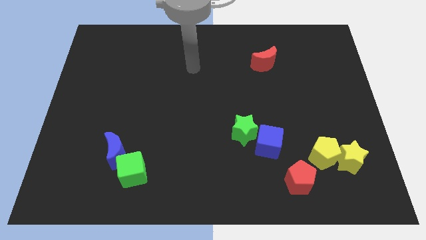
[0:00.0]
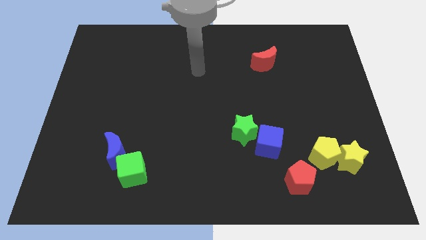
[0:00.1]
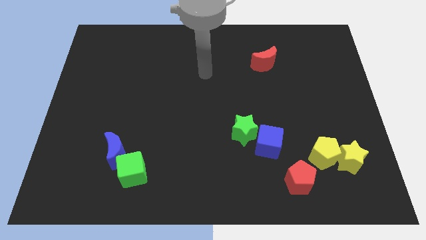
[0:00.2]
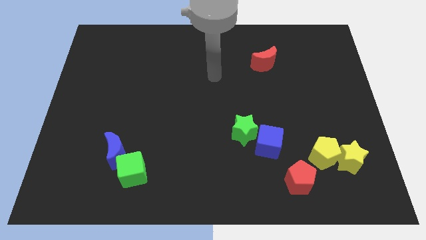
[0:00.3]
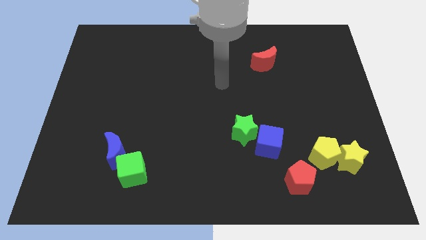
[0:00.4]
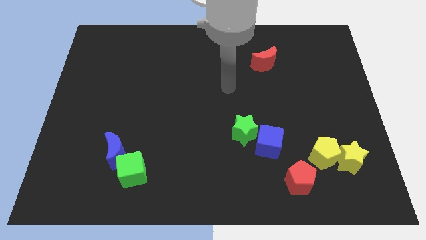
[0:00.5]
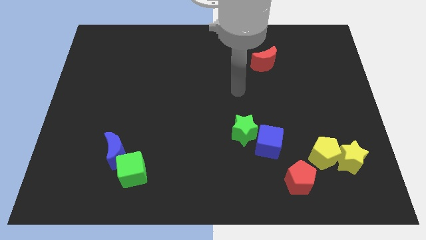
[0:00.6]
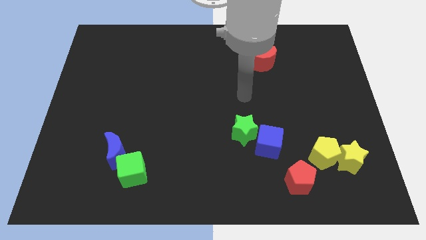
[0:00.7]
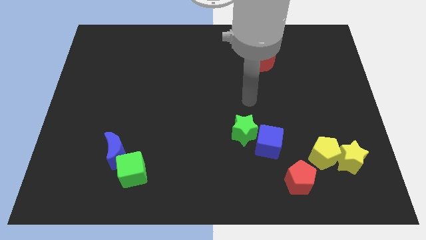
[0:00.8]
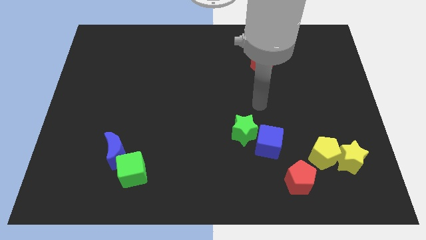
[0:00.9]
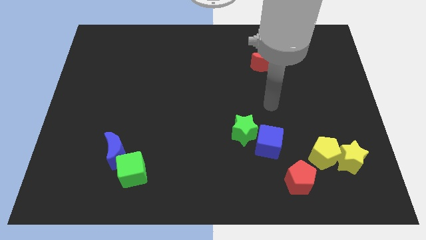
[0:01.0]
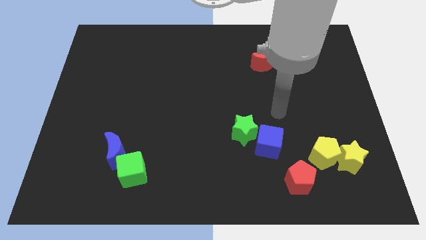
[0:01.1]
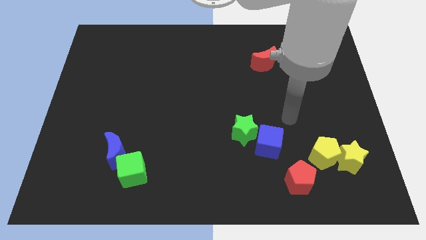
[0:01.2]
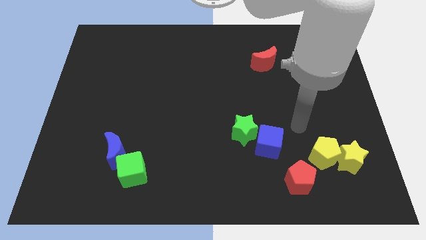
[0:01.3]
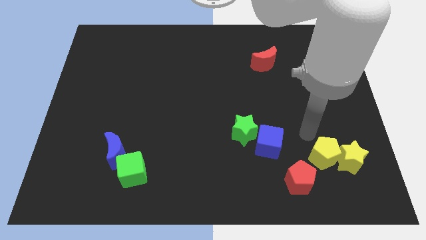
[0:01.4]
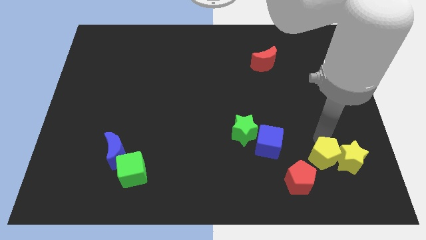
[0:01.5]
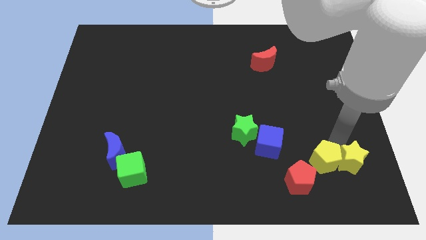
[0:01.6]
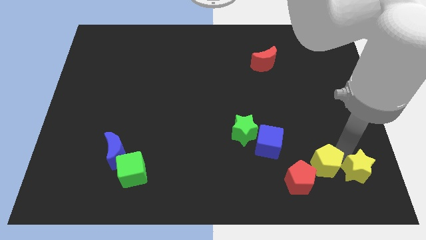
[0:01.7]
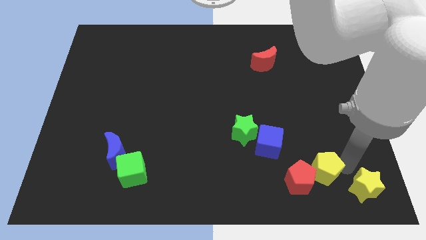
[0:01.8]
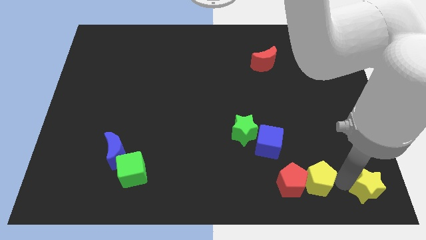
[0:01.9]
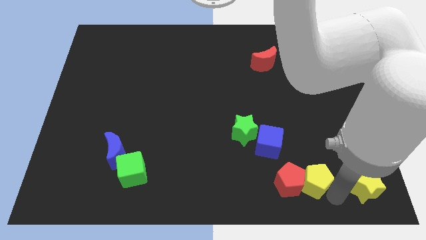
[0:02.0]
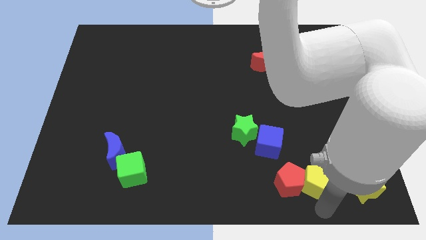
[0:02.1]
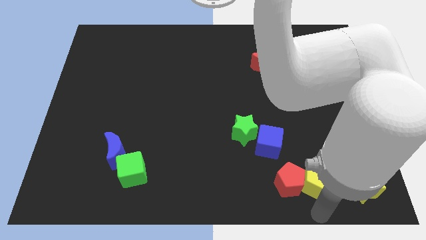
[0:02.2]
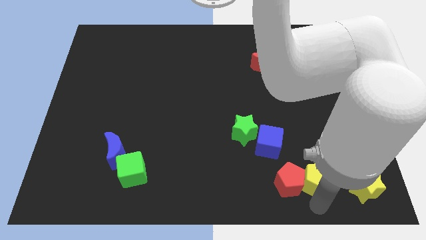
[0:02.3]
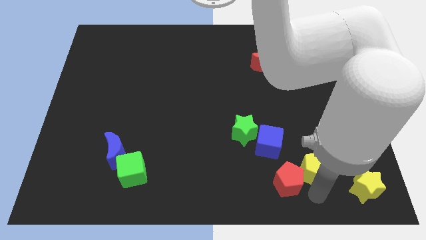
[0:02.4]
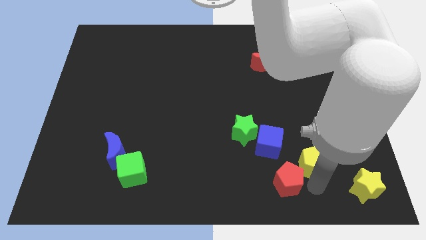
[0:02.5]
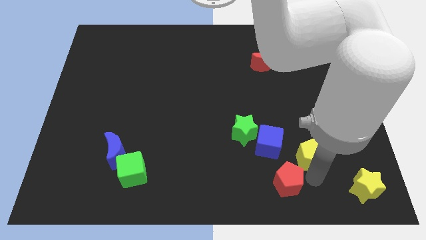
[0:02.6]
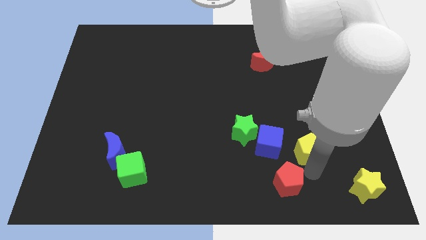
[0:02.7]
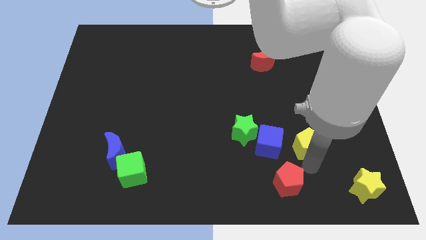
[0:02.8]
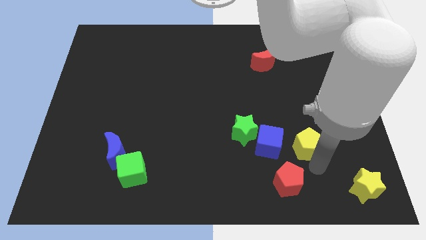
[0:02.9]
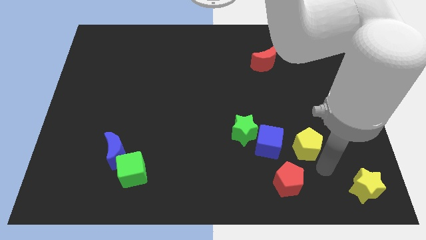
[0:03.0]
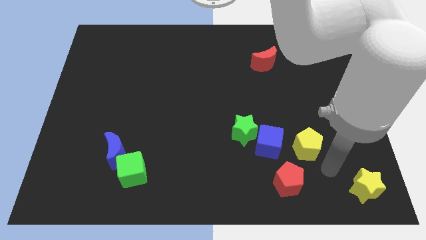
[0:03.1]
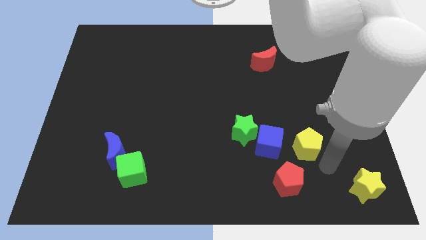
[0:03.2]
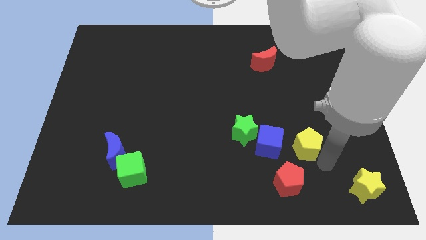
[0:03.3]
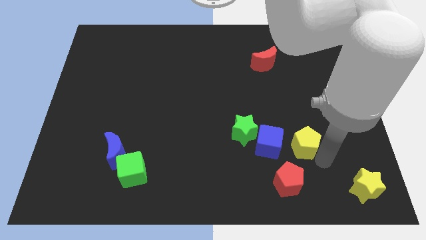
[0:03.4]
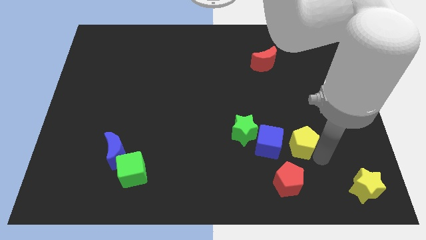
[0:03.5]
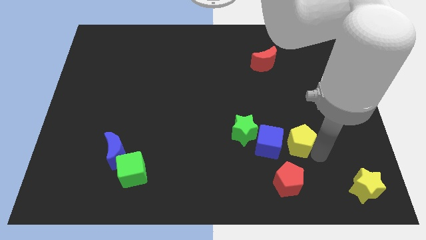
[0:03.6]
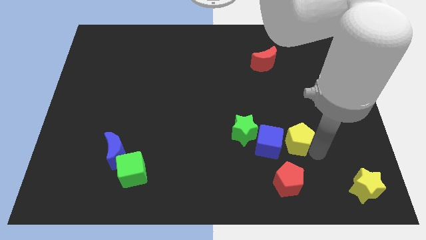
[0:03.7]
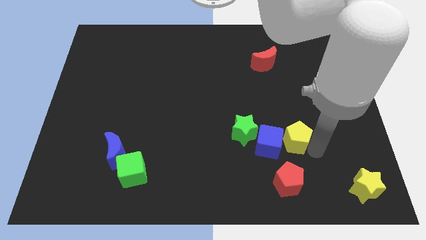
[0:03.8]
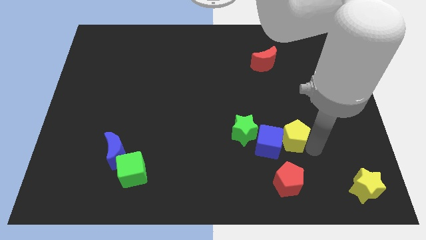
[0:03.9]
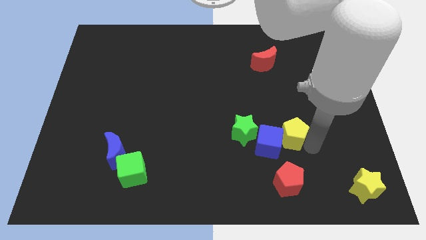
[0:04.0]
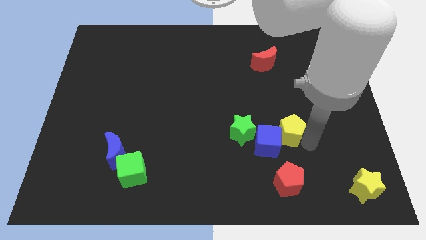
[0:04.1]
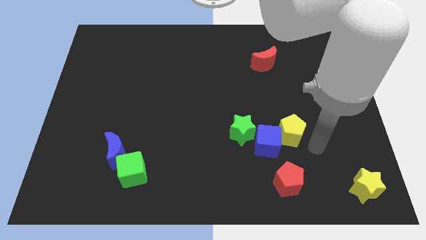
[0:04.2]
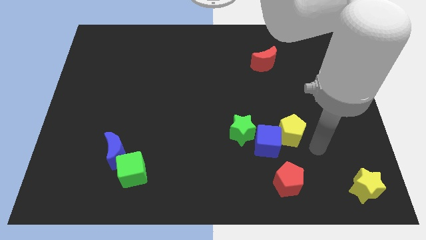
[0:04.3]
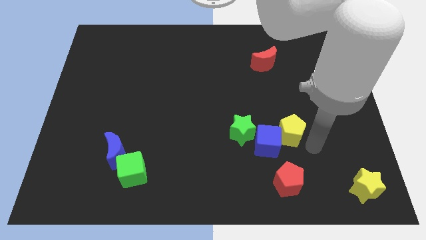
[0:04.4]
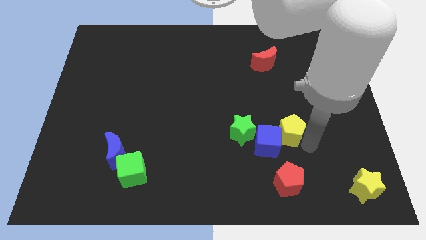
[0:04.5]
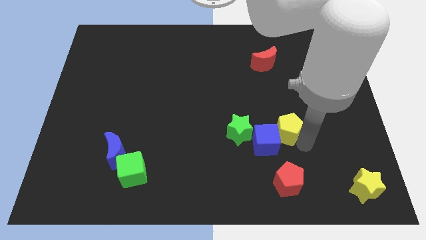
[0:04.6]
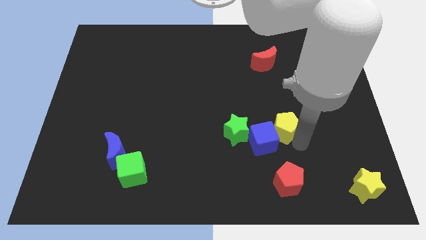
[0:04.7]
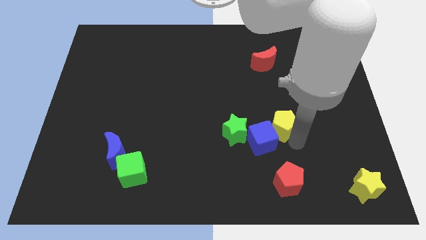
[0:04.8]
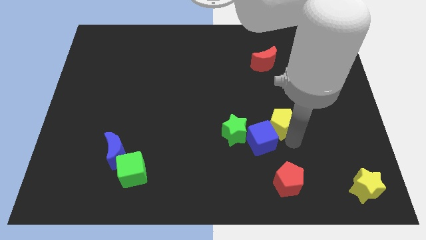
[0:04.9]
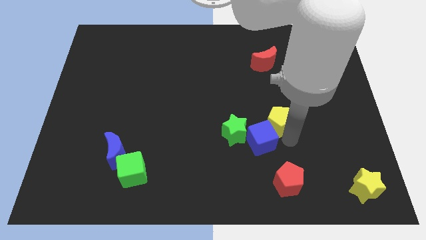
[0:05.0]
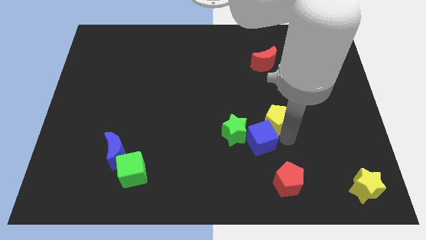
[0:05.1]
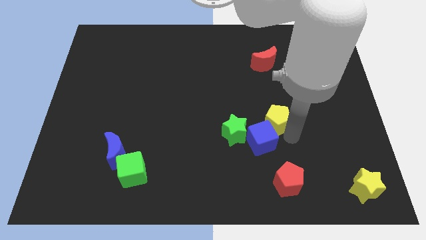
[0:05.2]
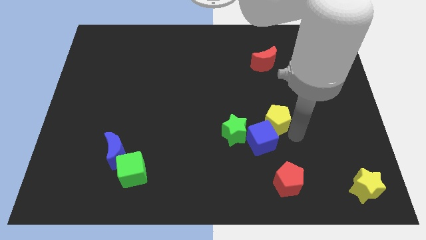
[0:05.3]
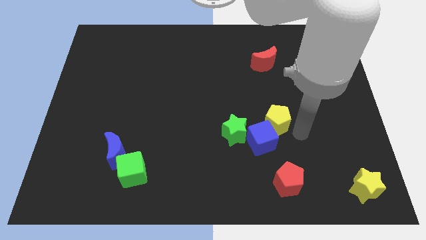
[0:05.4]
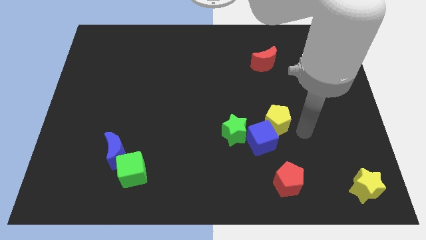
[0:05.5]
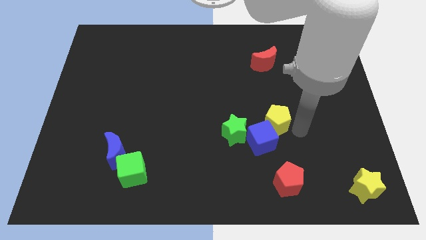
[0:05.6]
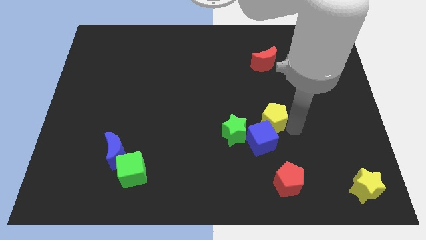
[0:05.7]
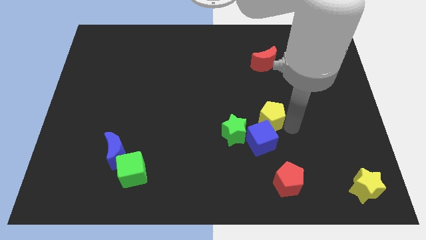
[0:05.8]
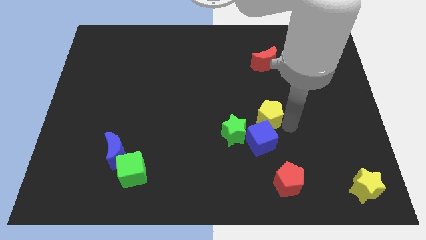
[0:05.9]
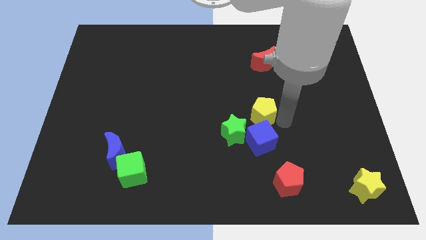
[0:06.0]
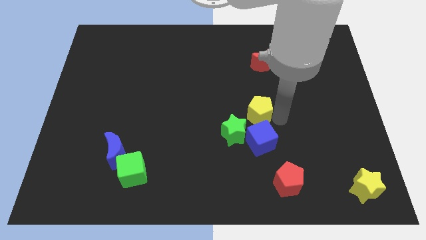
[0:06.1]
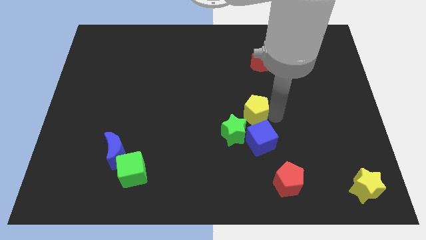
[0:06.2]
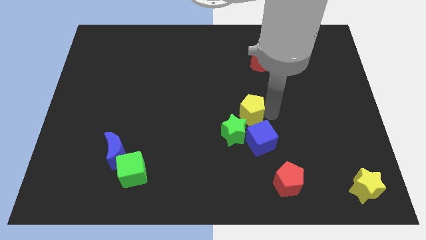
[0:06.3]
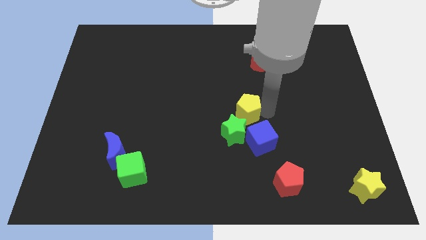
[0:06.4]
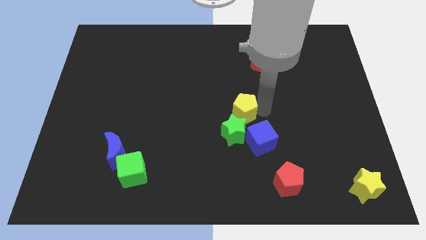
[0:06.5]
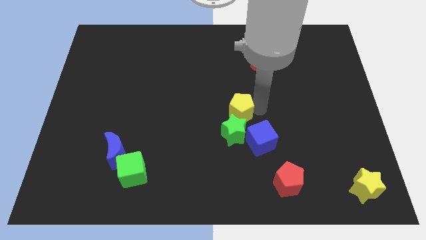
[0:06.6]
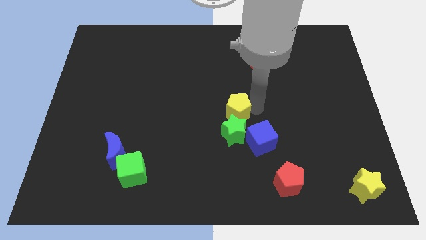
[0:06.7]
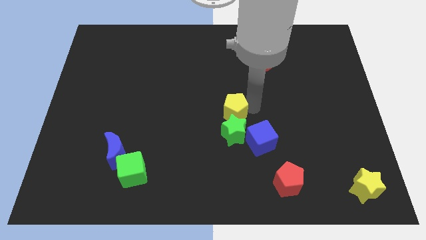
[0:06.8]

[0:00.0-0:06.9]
push the yellow pentagon diagonally up and to the left of the green star
